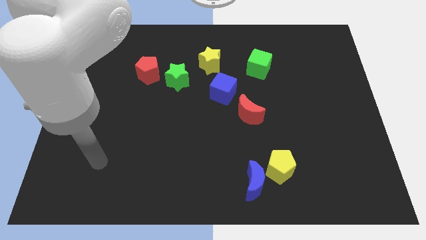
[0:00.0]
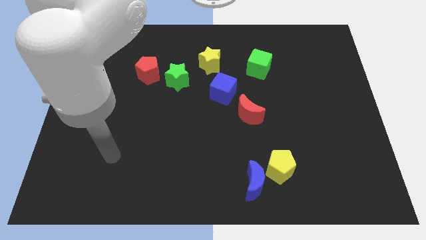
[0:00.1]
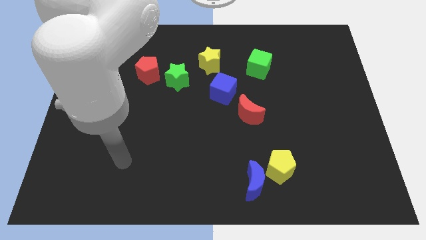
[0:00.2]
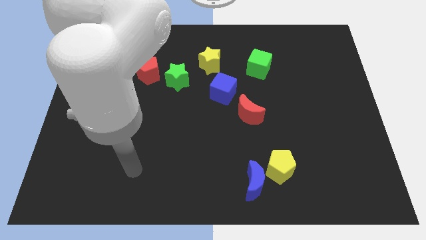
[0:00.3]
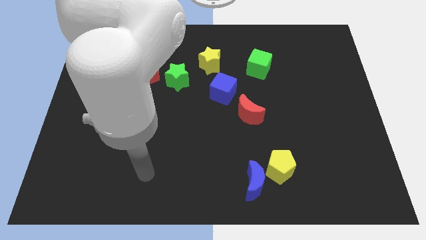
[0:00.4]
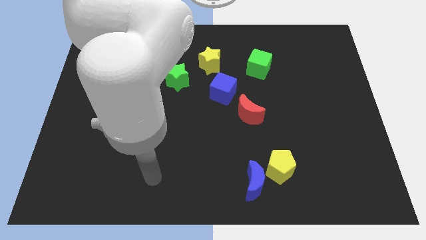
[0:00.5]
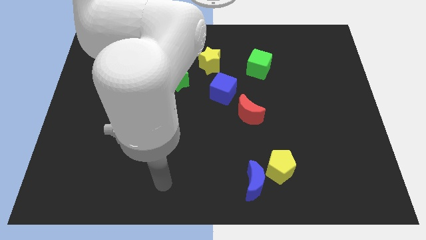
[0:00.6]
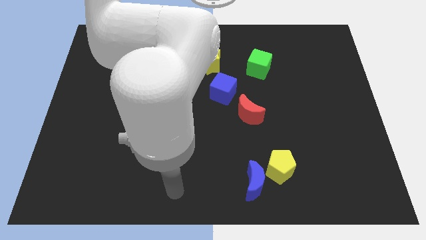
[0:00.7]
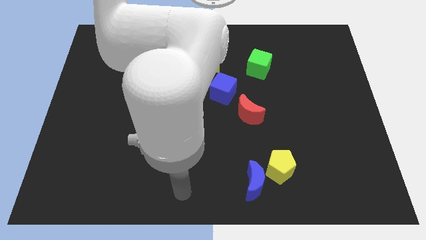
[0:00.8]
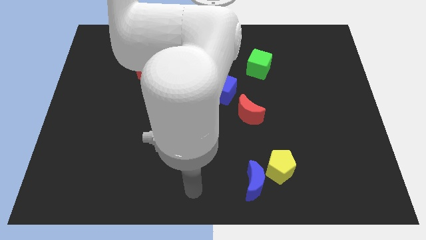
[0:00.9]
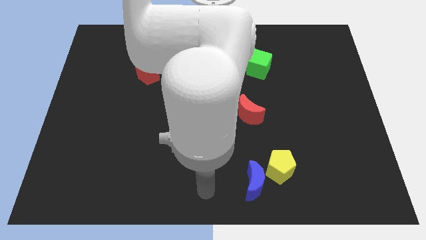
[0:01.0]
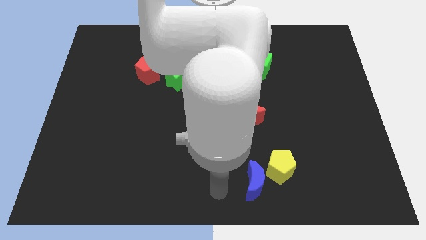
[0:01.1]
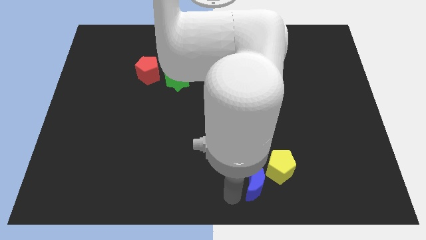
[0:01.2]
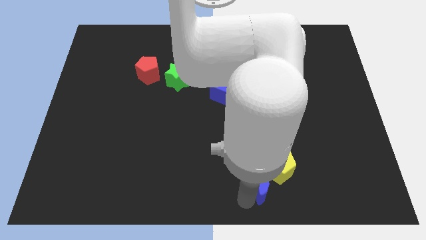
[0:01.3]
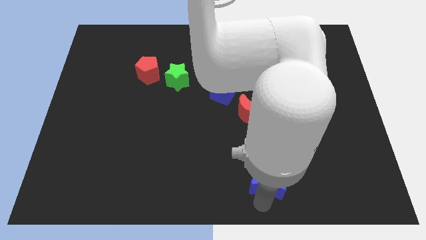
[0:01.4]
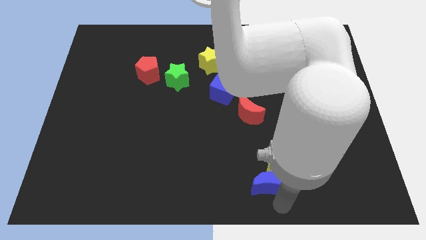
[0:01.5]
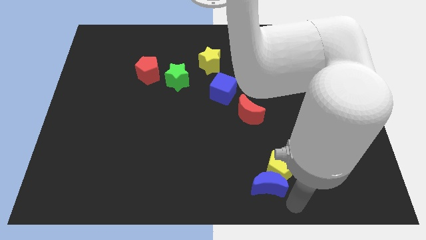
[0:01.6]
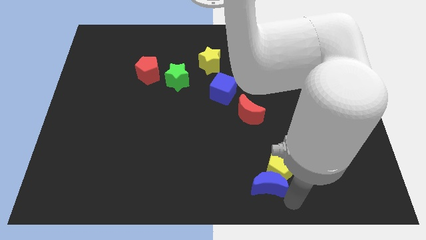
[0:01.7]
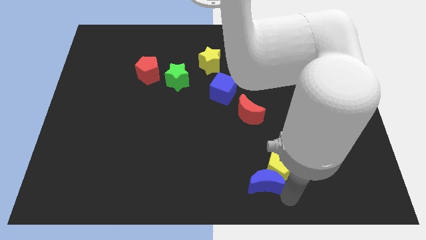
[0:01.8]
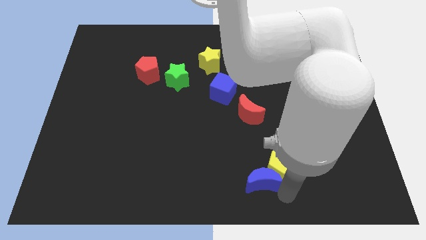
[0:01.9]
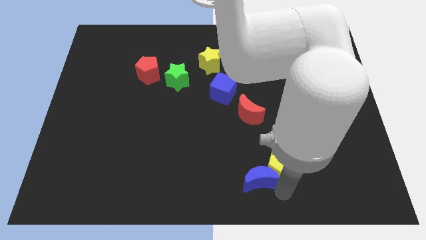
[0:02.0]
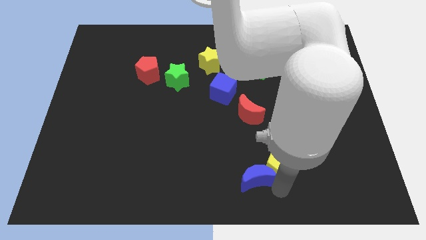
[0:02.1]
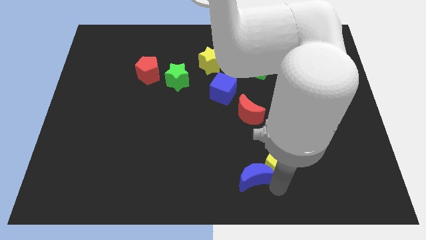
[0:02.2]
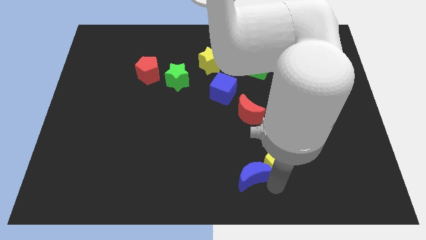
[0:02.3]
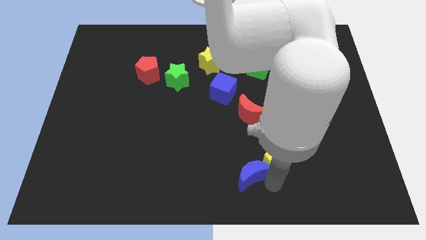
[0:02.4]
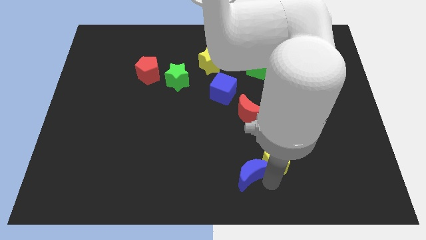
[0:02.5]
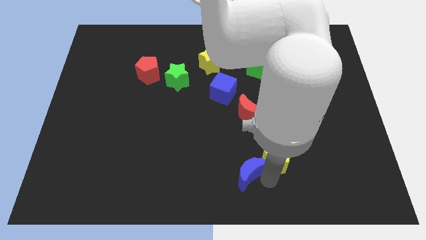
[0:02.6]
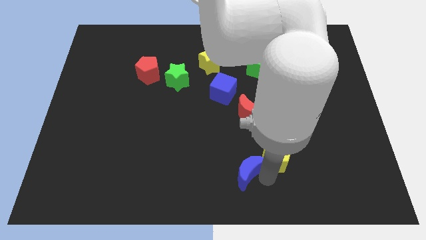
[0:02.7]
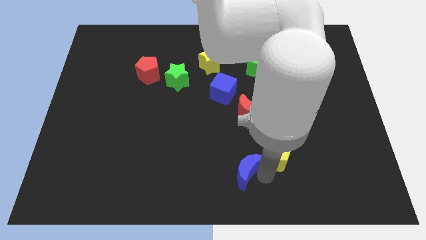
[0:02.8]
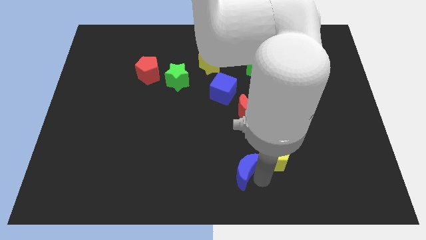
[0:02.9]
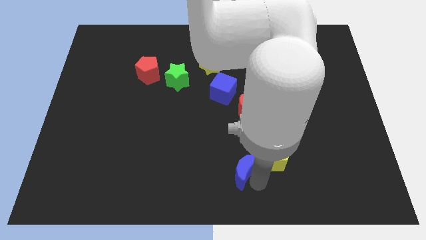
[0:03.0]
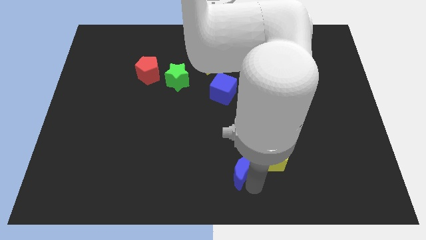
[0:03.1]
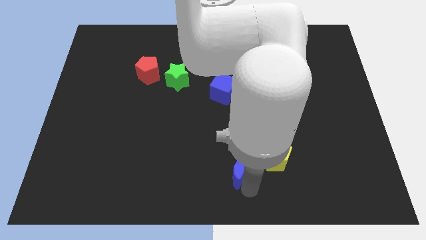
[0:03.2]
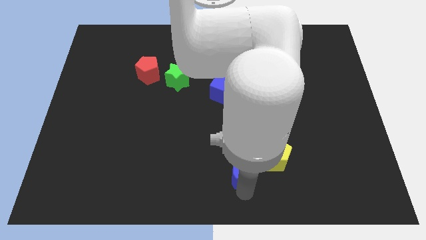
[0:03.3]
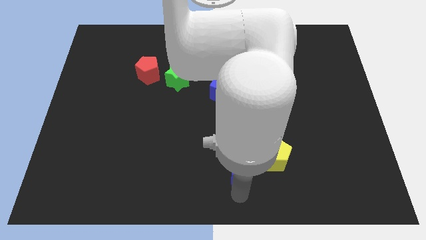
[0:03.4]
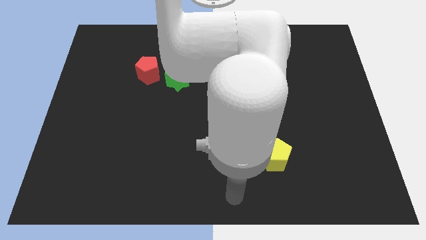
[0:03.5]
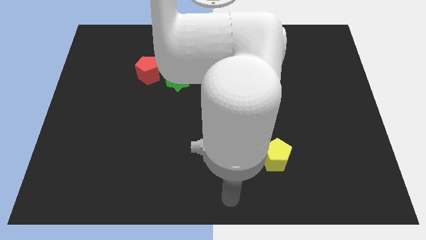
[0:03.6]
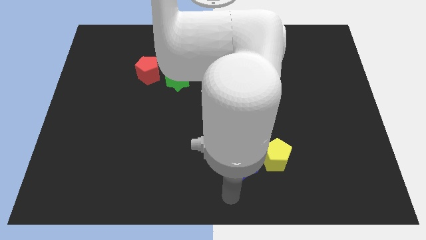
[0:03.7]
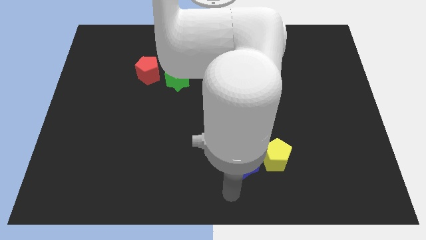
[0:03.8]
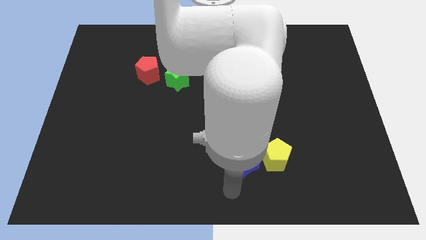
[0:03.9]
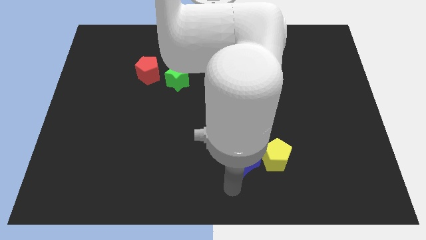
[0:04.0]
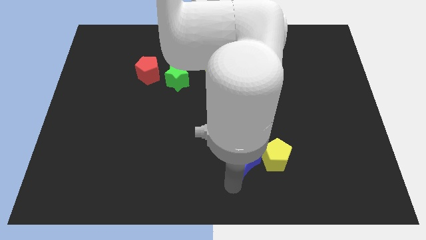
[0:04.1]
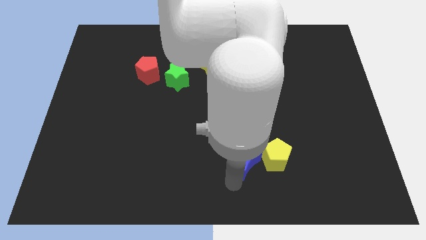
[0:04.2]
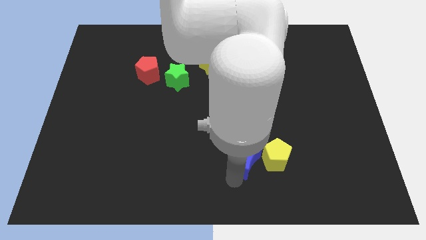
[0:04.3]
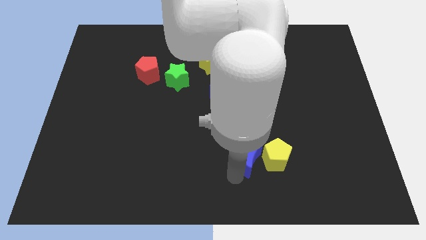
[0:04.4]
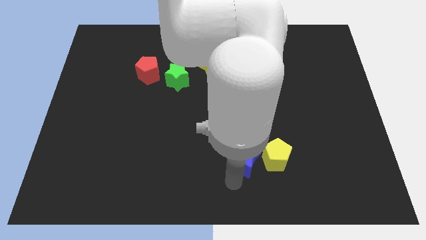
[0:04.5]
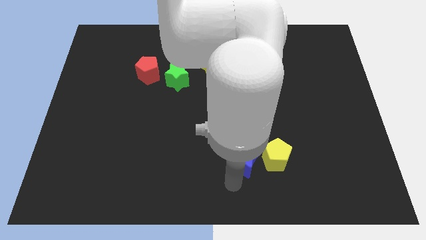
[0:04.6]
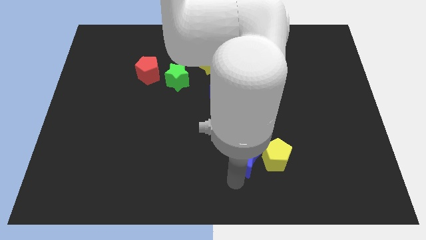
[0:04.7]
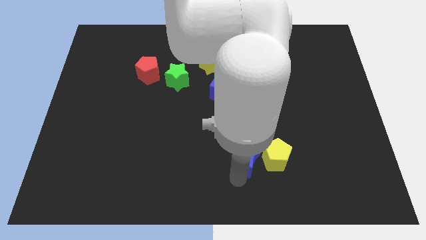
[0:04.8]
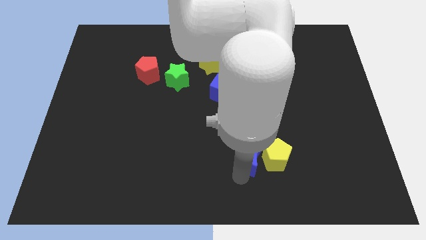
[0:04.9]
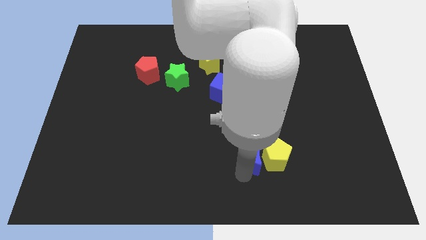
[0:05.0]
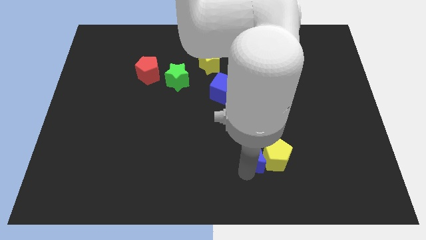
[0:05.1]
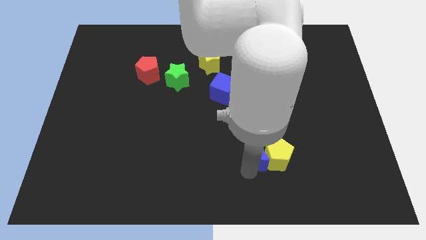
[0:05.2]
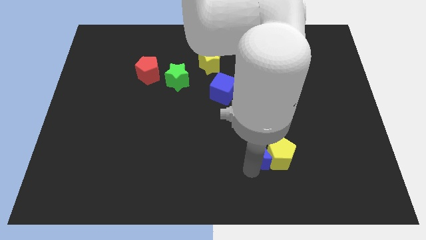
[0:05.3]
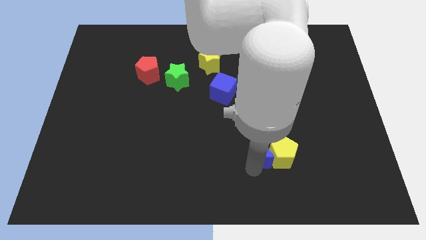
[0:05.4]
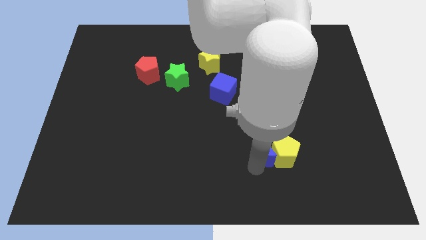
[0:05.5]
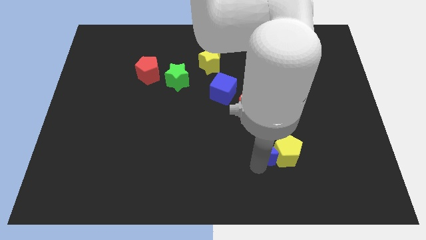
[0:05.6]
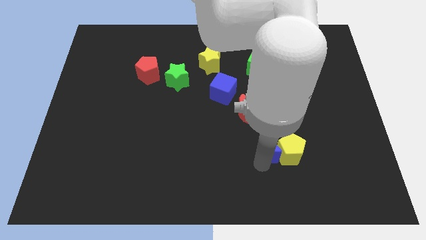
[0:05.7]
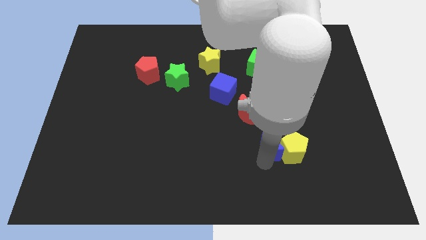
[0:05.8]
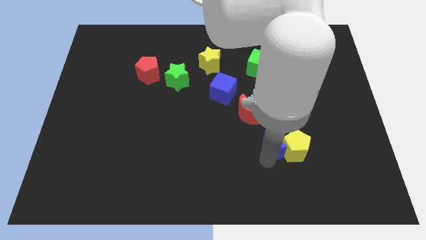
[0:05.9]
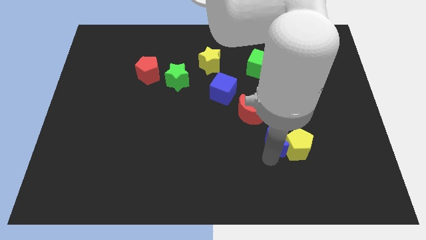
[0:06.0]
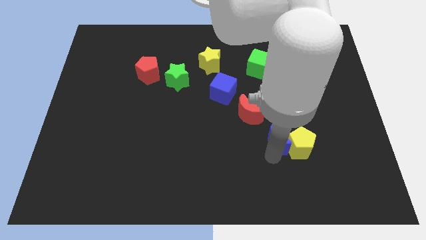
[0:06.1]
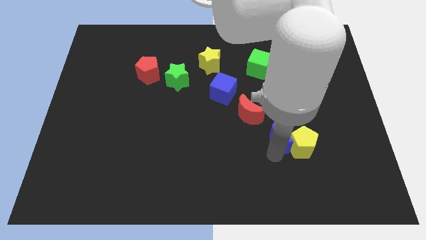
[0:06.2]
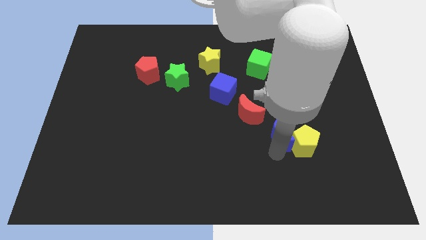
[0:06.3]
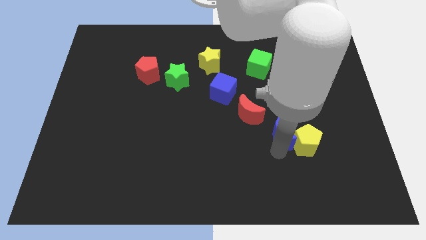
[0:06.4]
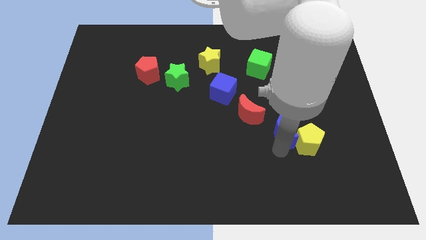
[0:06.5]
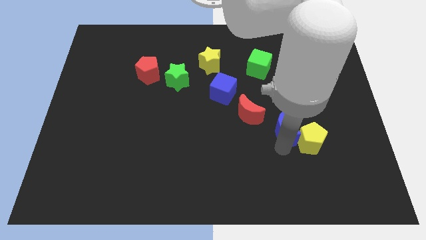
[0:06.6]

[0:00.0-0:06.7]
push the blue moon to the right of the red moon

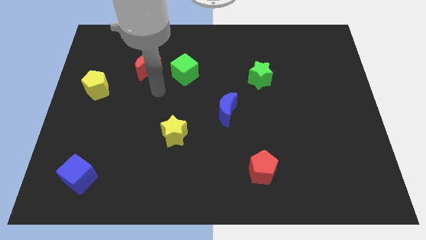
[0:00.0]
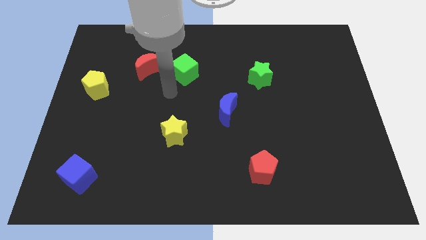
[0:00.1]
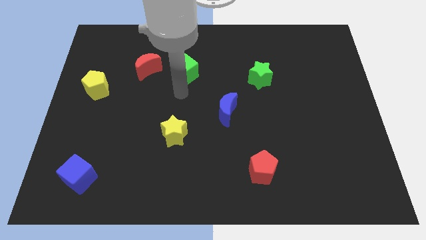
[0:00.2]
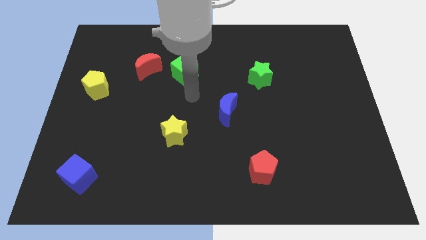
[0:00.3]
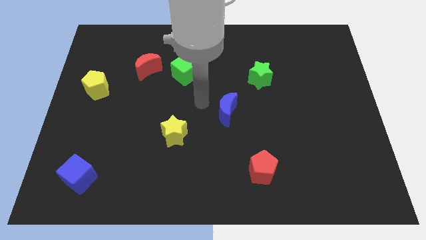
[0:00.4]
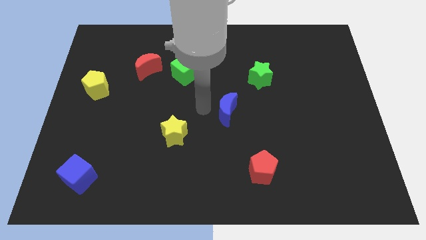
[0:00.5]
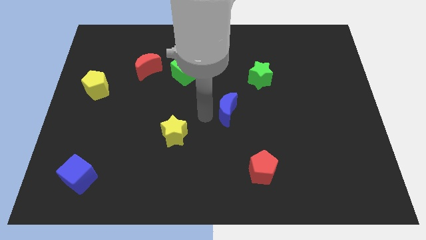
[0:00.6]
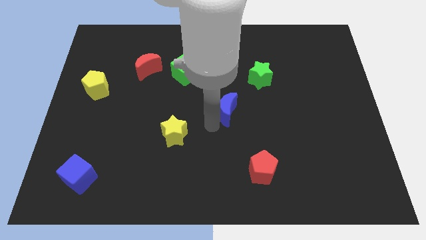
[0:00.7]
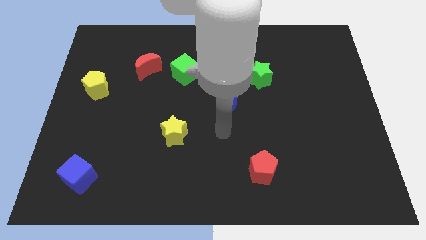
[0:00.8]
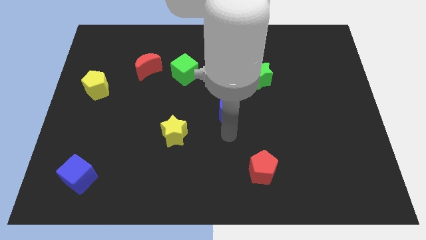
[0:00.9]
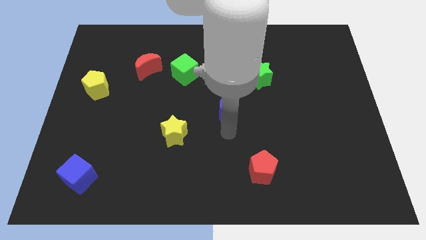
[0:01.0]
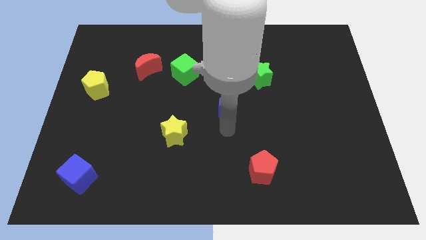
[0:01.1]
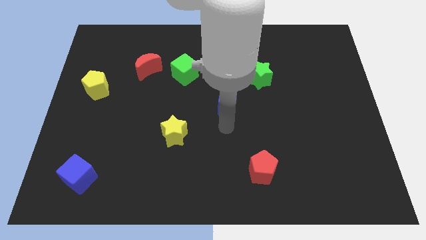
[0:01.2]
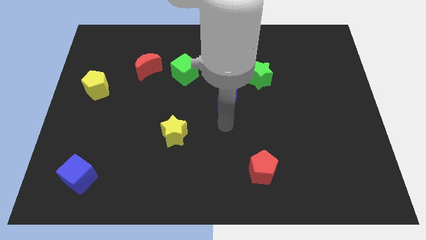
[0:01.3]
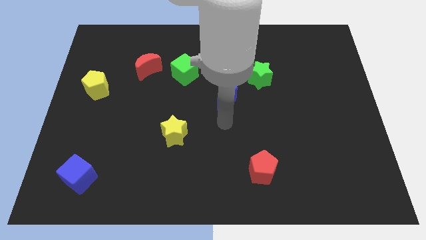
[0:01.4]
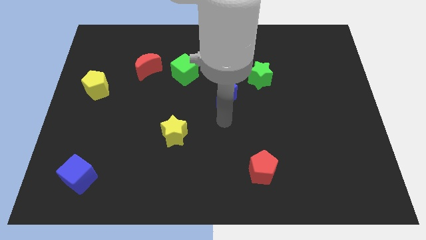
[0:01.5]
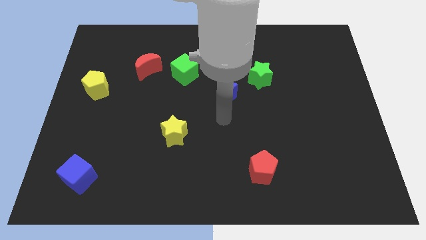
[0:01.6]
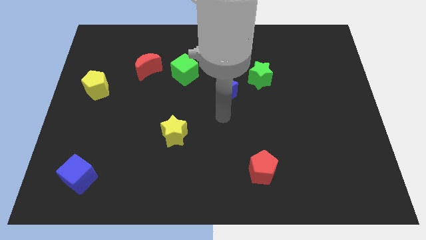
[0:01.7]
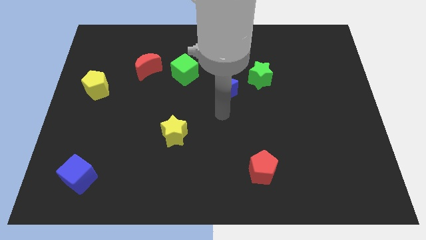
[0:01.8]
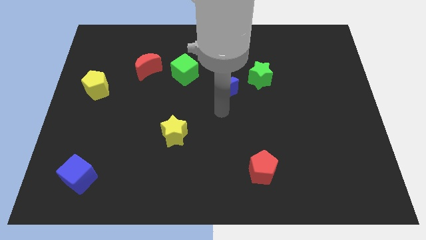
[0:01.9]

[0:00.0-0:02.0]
slide the blue moon to the left of the green star
